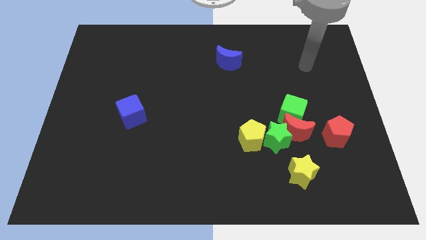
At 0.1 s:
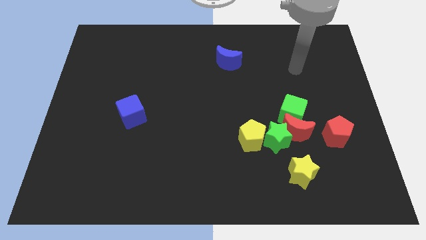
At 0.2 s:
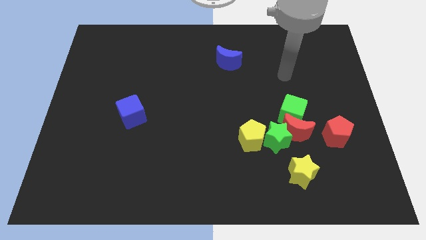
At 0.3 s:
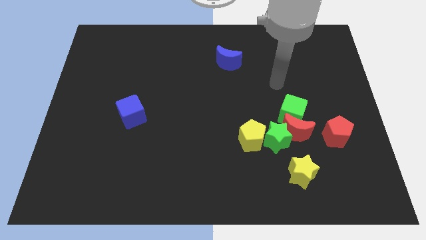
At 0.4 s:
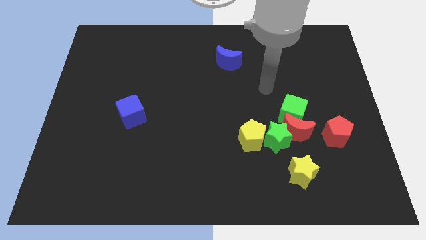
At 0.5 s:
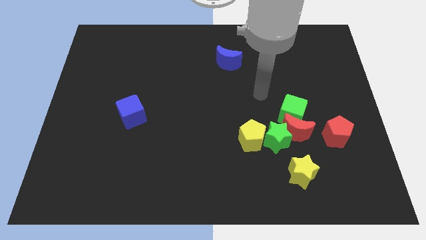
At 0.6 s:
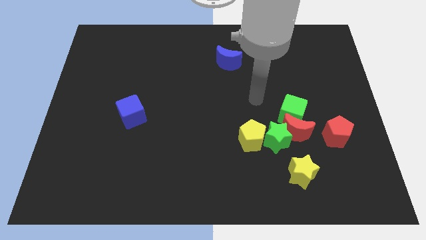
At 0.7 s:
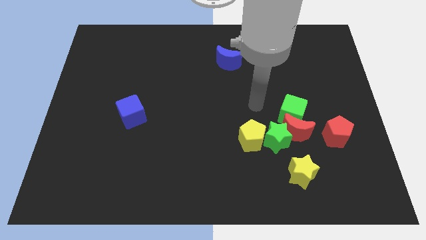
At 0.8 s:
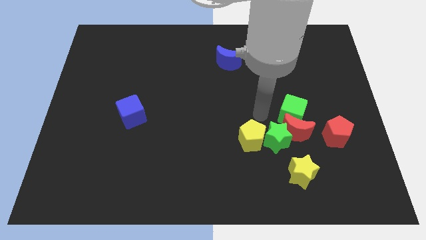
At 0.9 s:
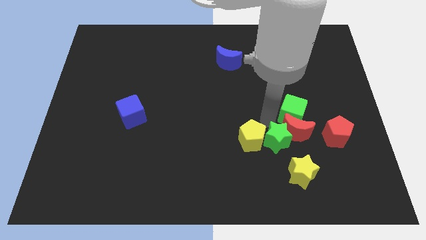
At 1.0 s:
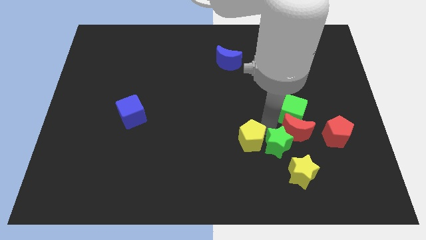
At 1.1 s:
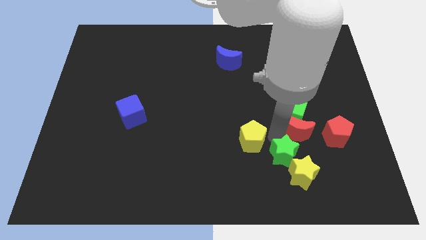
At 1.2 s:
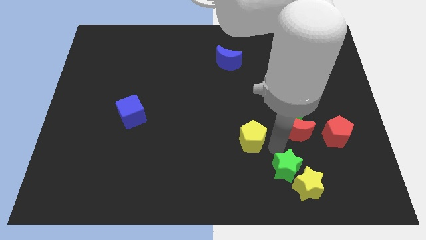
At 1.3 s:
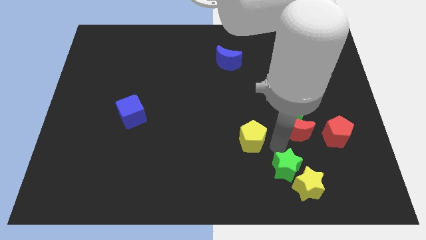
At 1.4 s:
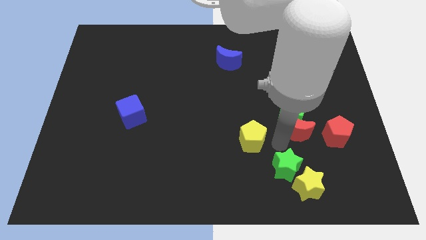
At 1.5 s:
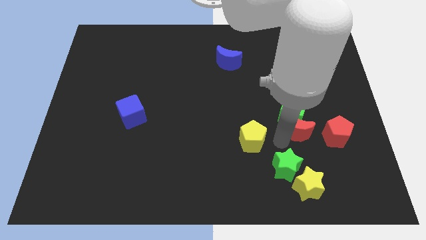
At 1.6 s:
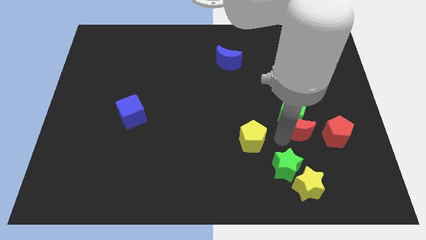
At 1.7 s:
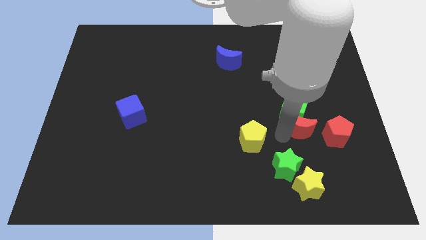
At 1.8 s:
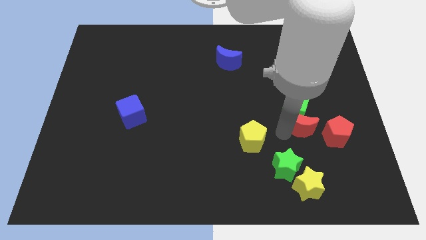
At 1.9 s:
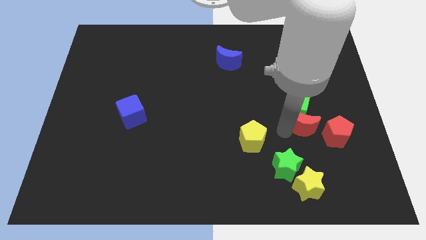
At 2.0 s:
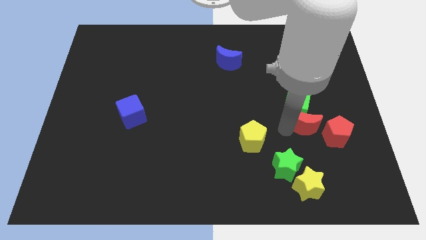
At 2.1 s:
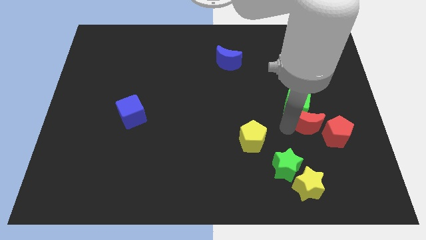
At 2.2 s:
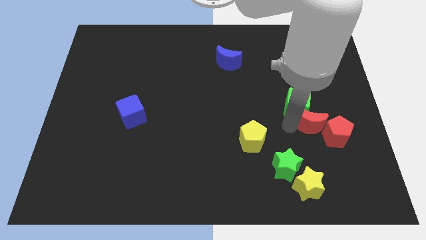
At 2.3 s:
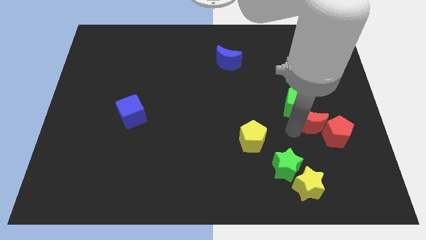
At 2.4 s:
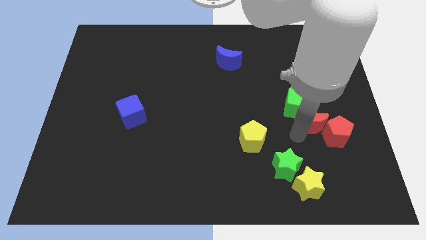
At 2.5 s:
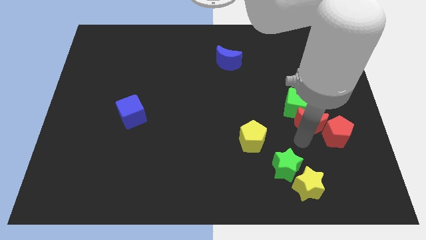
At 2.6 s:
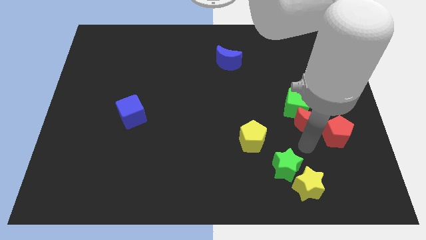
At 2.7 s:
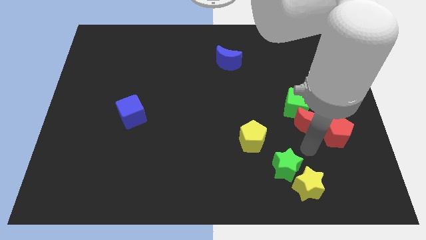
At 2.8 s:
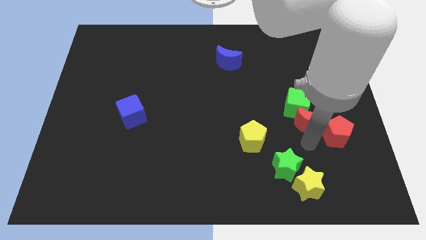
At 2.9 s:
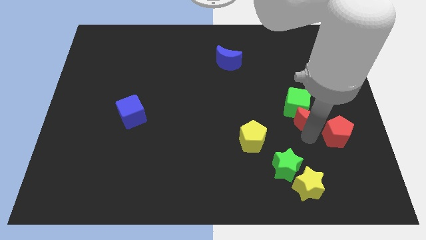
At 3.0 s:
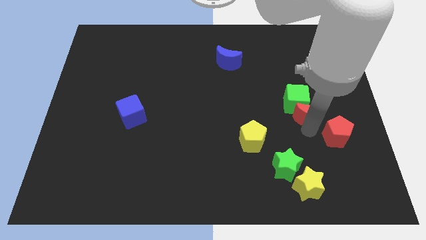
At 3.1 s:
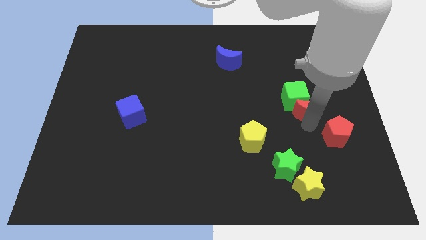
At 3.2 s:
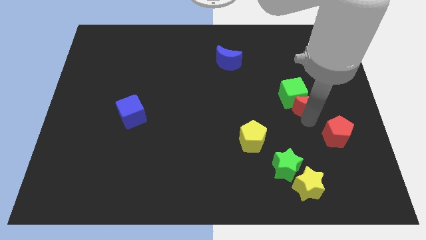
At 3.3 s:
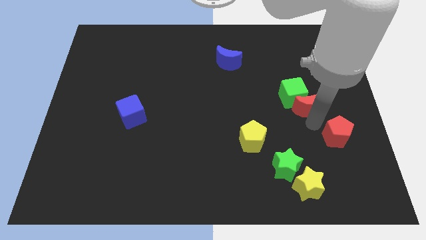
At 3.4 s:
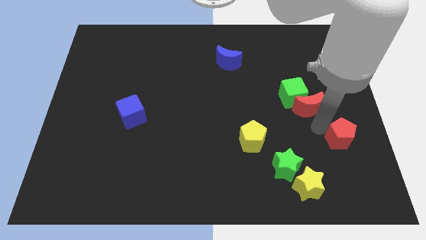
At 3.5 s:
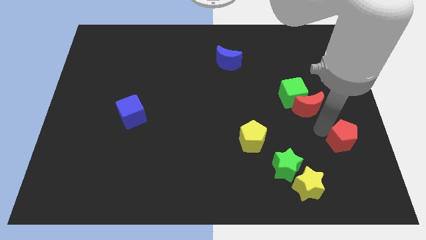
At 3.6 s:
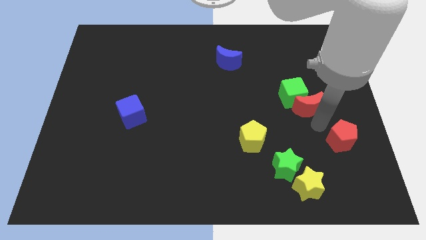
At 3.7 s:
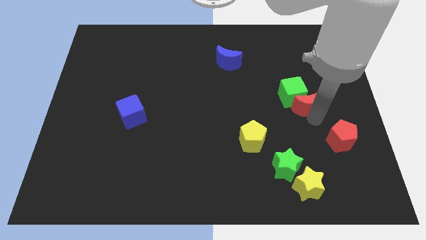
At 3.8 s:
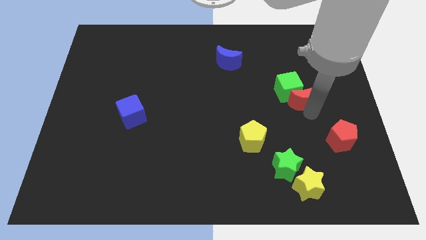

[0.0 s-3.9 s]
slide the red moon a little bit upwards

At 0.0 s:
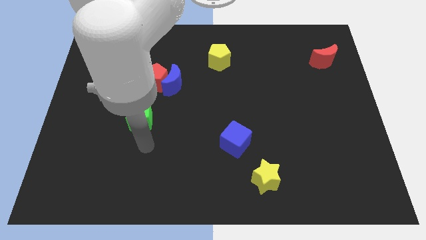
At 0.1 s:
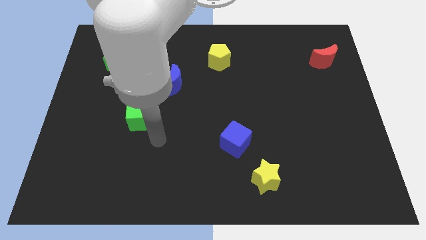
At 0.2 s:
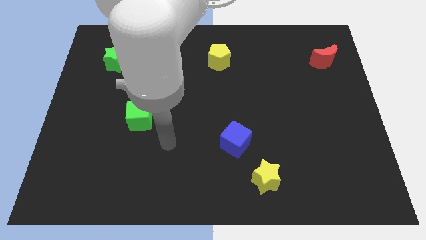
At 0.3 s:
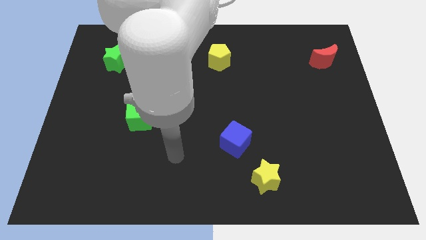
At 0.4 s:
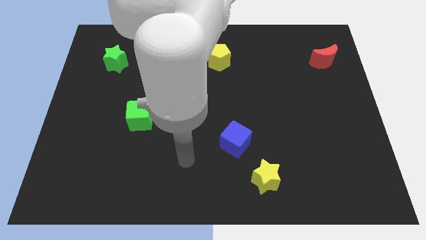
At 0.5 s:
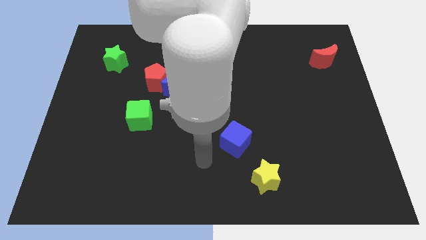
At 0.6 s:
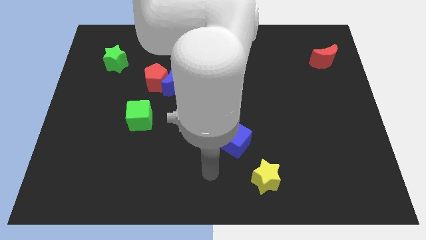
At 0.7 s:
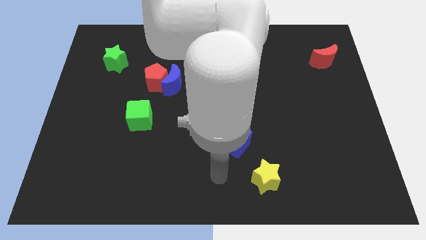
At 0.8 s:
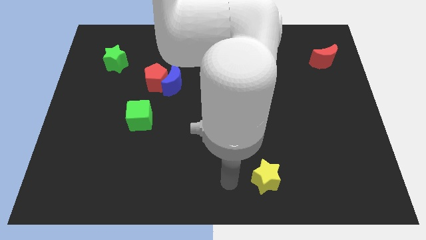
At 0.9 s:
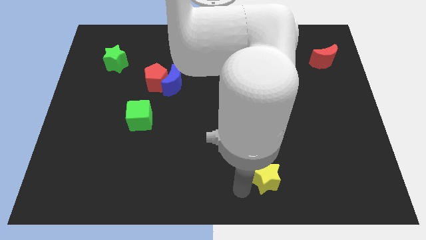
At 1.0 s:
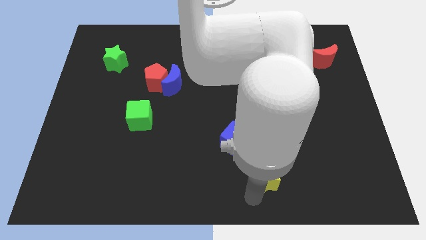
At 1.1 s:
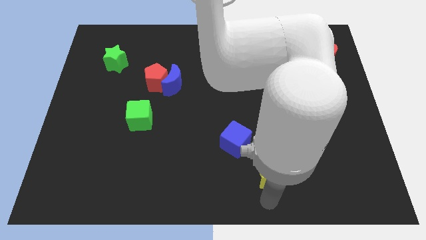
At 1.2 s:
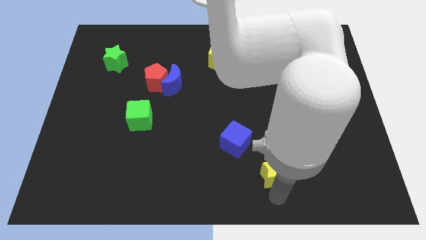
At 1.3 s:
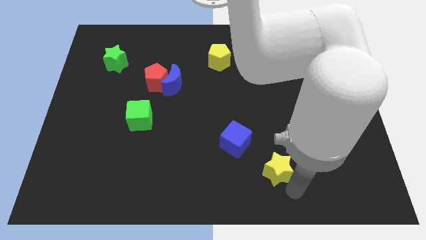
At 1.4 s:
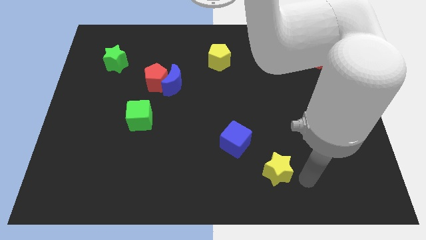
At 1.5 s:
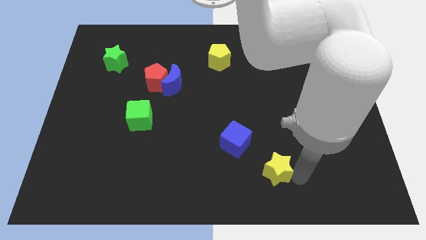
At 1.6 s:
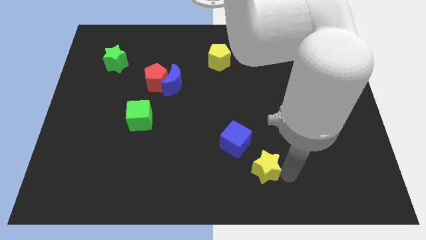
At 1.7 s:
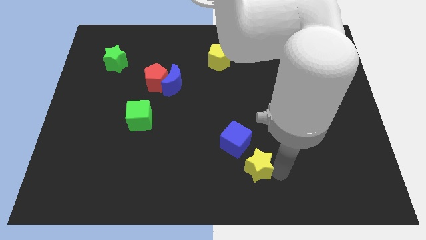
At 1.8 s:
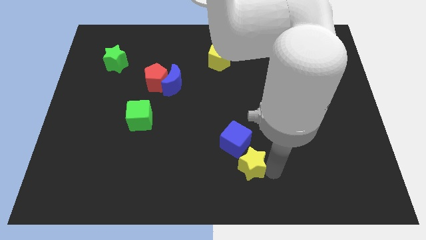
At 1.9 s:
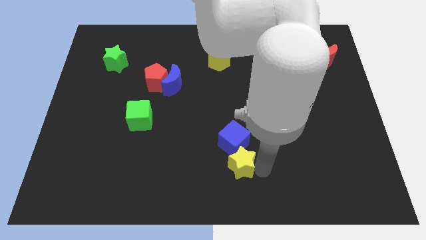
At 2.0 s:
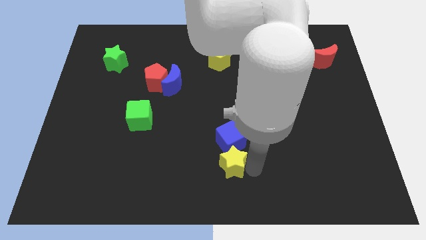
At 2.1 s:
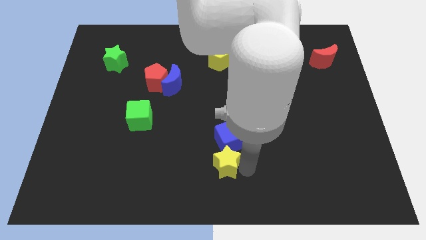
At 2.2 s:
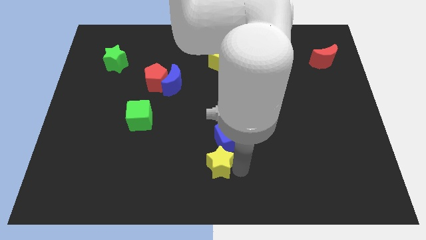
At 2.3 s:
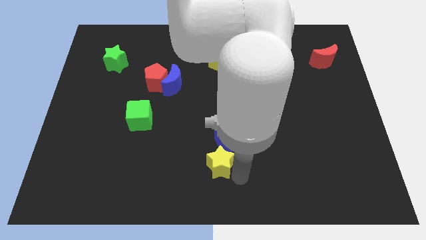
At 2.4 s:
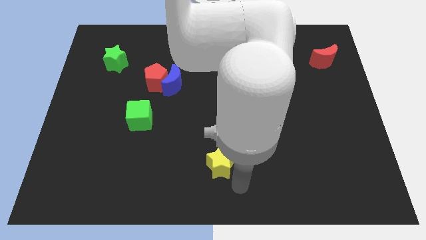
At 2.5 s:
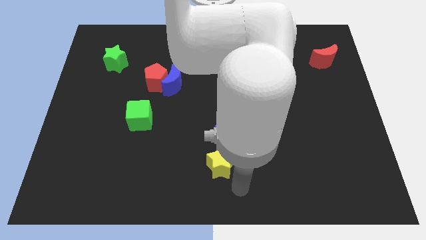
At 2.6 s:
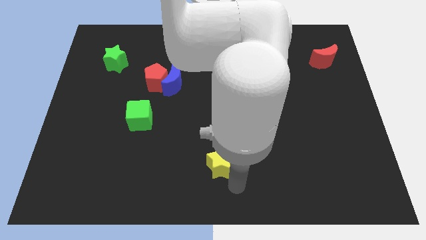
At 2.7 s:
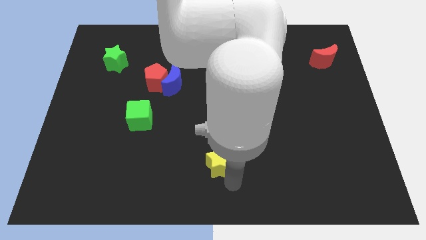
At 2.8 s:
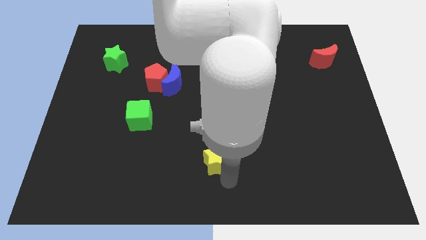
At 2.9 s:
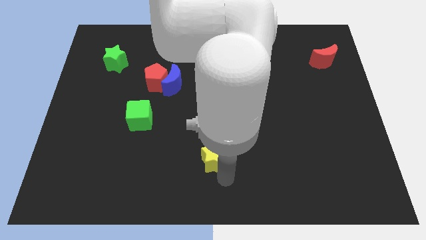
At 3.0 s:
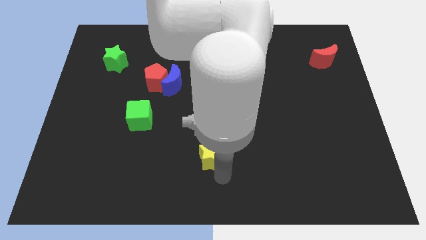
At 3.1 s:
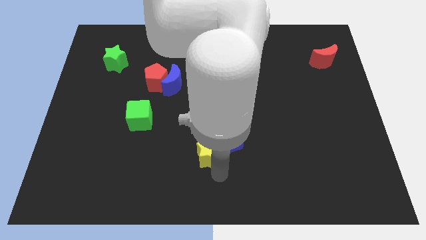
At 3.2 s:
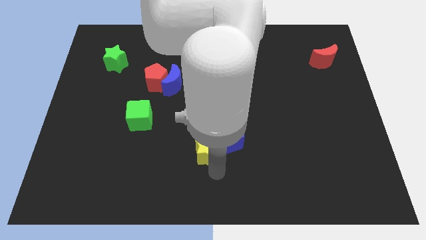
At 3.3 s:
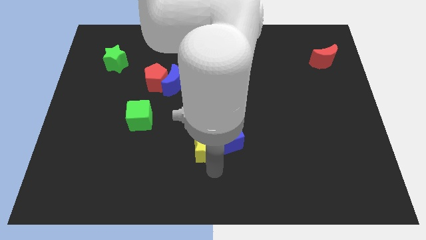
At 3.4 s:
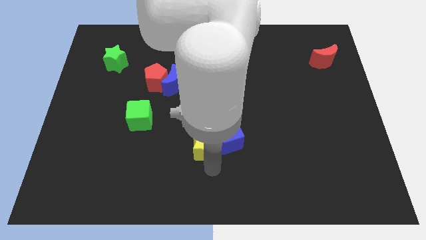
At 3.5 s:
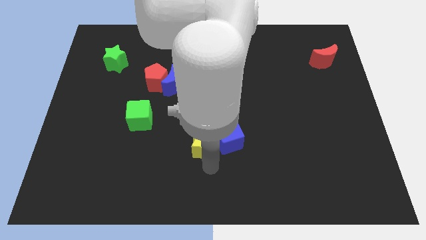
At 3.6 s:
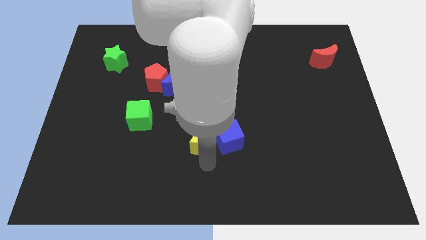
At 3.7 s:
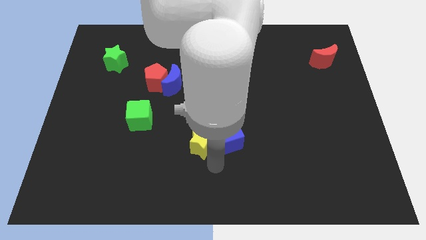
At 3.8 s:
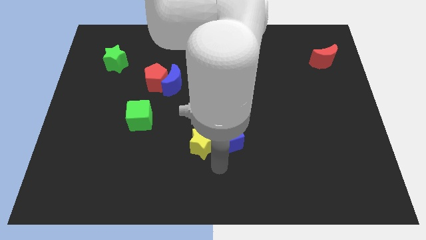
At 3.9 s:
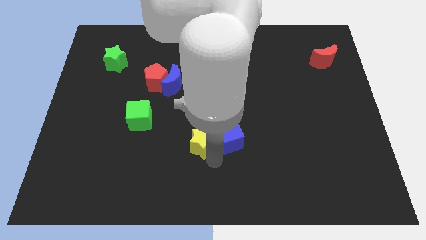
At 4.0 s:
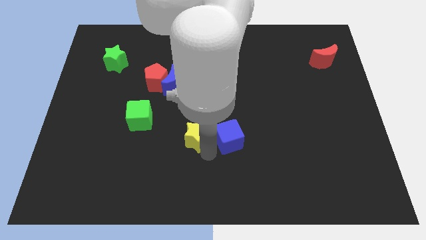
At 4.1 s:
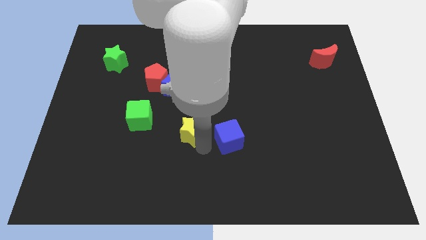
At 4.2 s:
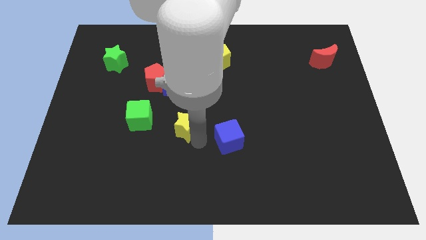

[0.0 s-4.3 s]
move the yellow star diagonally up and to the left
